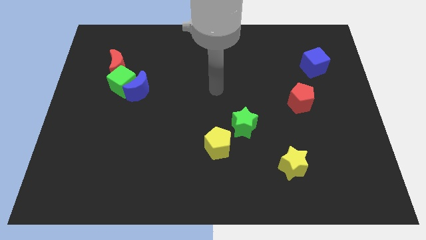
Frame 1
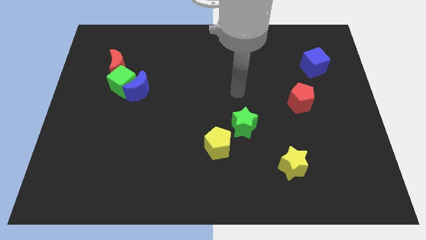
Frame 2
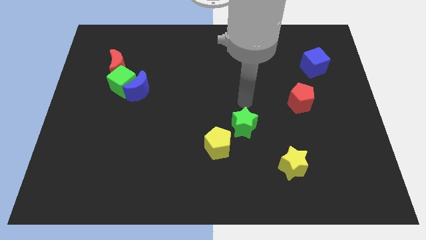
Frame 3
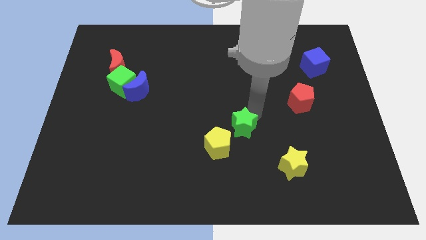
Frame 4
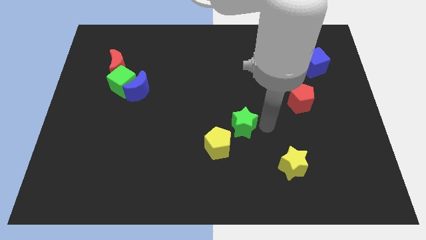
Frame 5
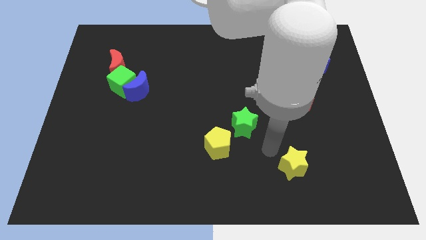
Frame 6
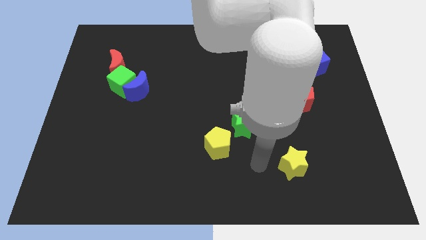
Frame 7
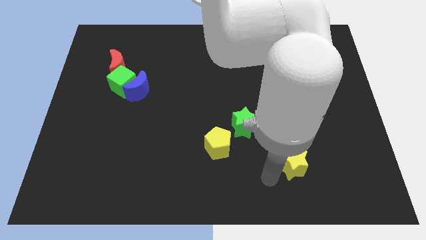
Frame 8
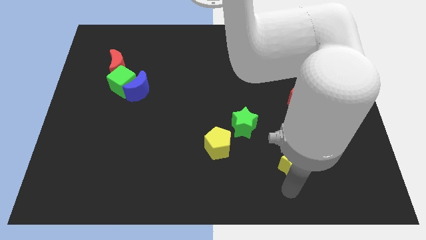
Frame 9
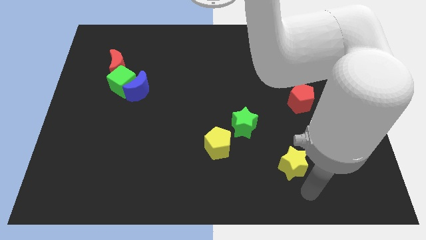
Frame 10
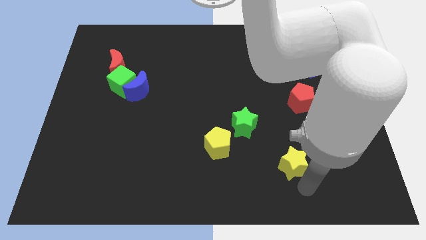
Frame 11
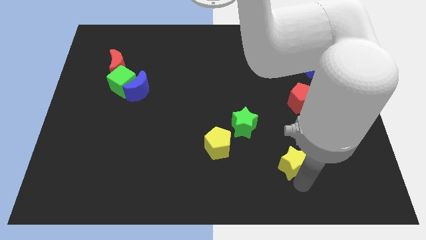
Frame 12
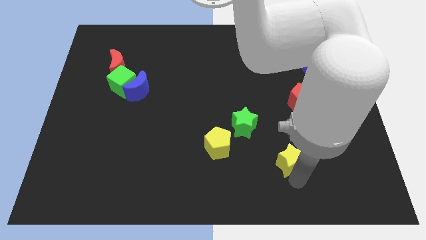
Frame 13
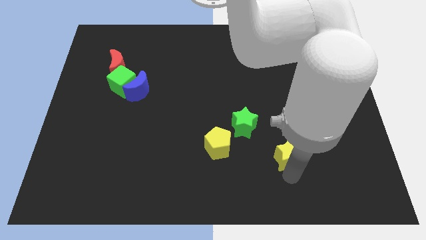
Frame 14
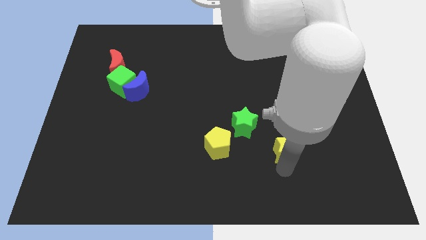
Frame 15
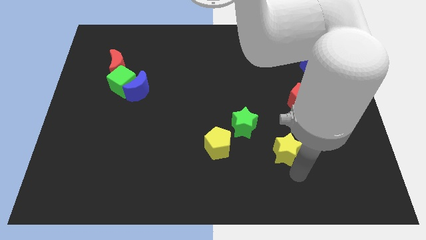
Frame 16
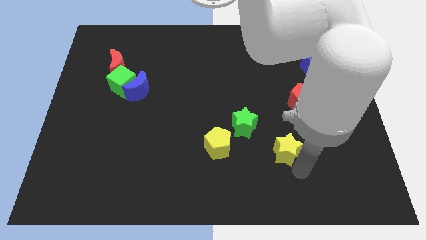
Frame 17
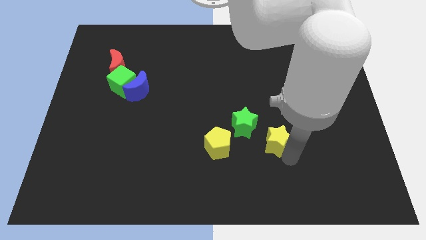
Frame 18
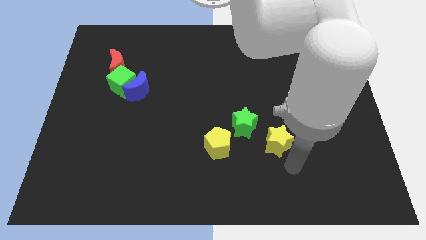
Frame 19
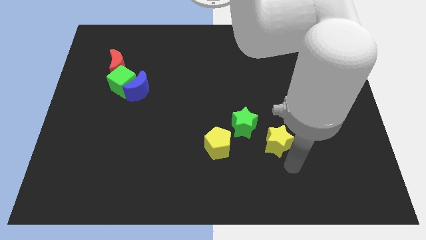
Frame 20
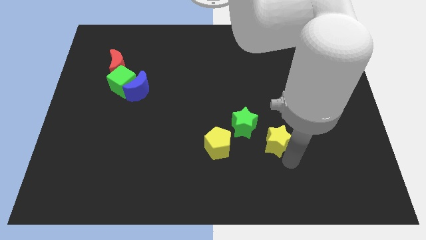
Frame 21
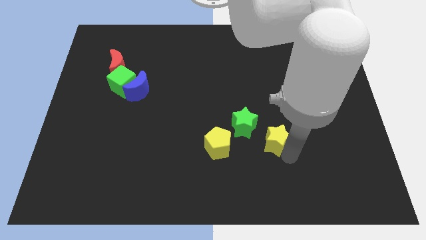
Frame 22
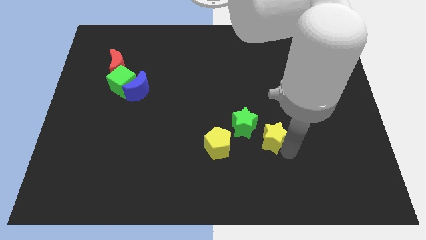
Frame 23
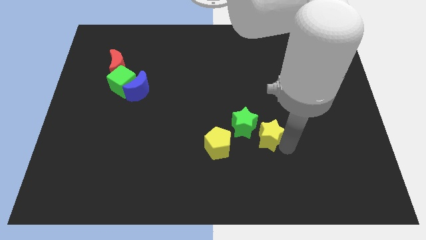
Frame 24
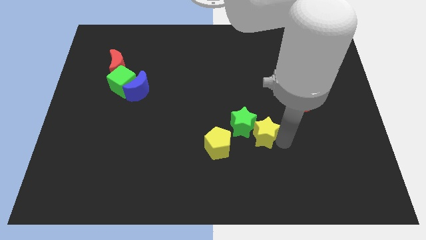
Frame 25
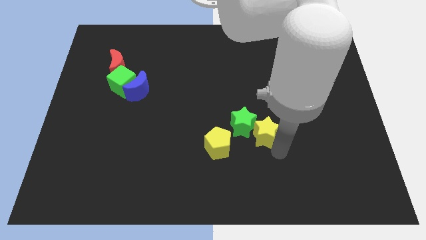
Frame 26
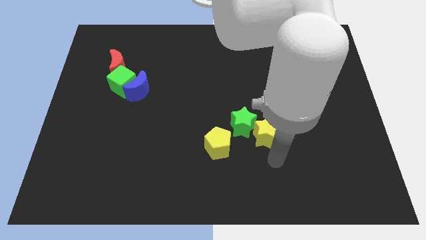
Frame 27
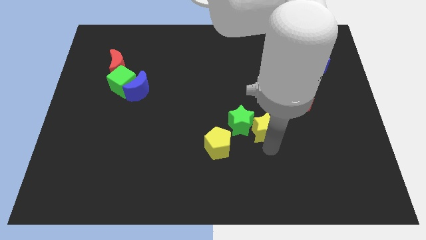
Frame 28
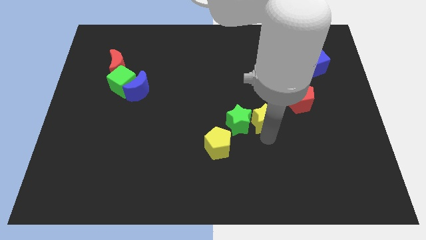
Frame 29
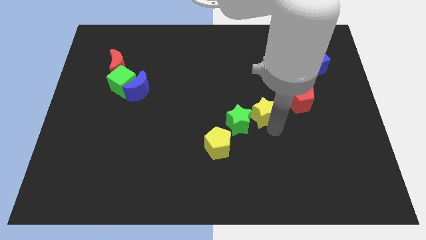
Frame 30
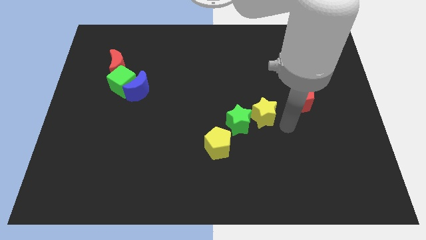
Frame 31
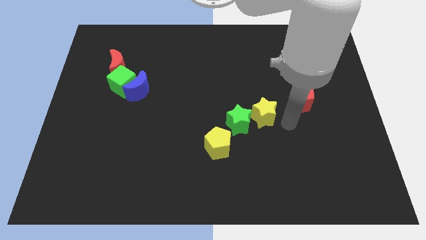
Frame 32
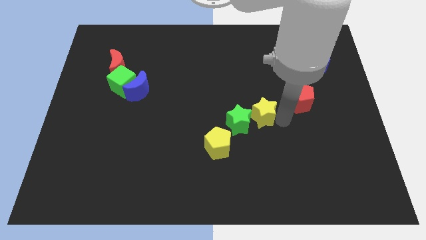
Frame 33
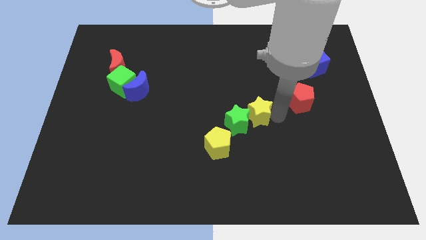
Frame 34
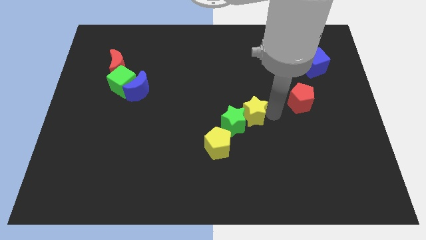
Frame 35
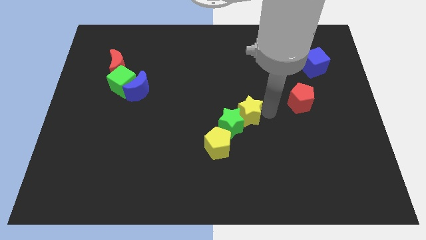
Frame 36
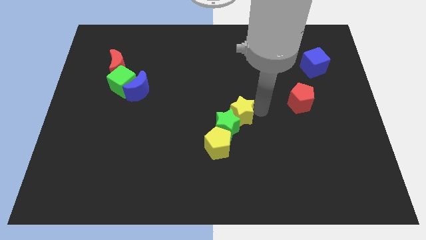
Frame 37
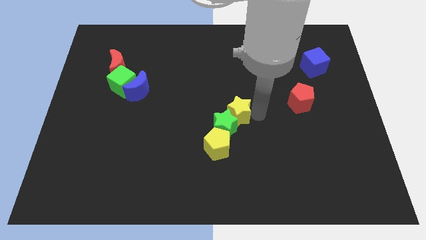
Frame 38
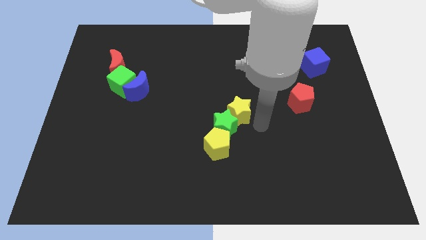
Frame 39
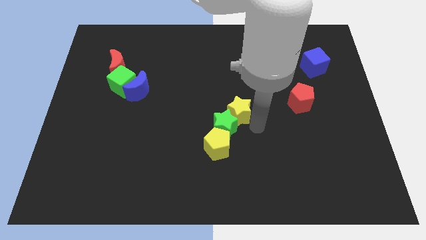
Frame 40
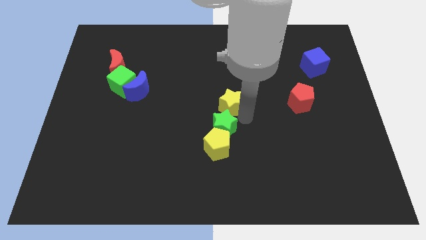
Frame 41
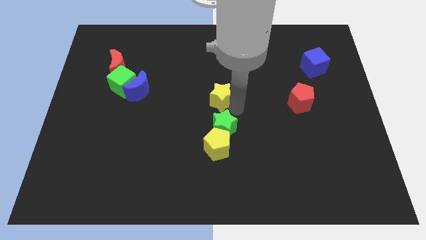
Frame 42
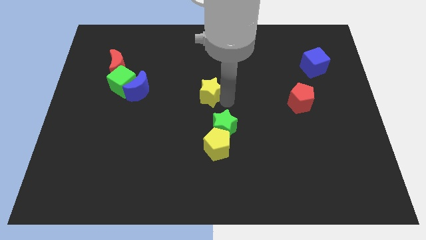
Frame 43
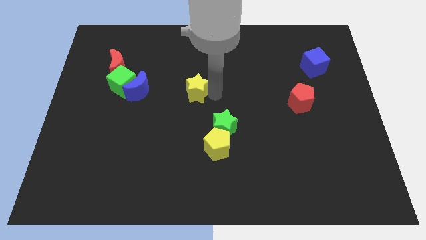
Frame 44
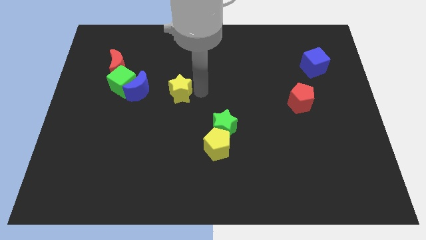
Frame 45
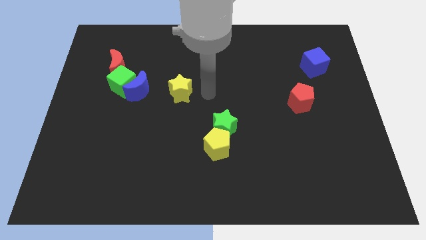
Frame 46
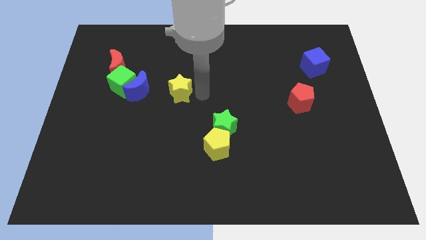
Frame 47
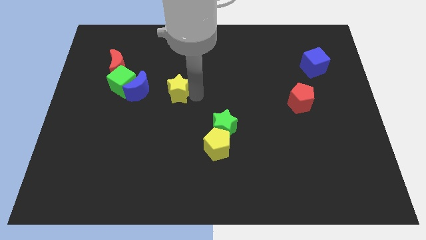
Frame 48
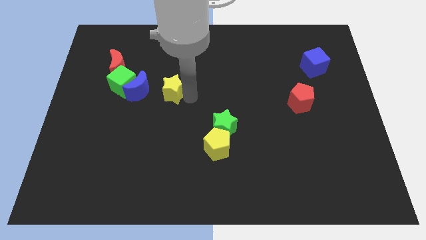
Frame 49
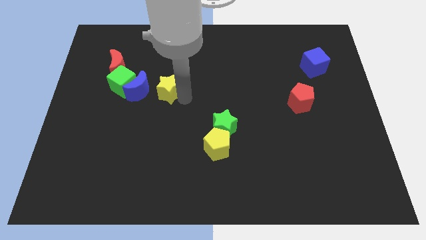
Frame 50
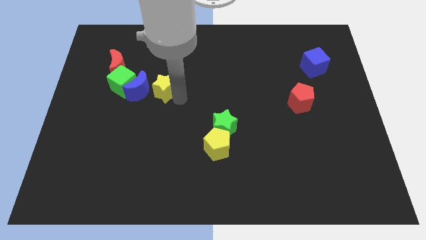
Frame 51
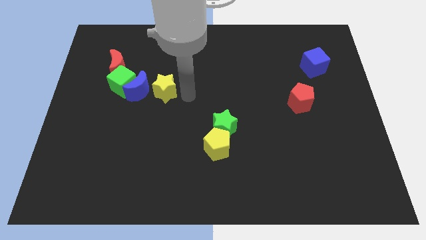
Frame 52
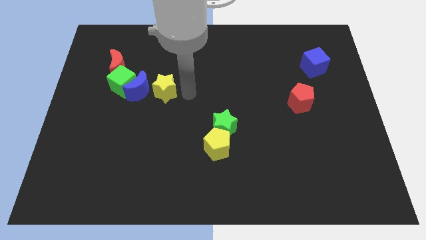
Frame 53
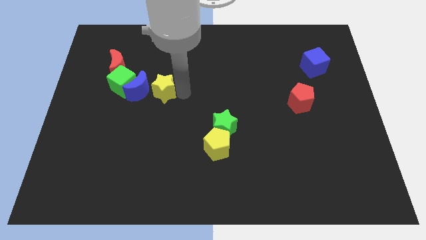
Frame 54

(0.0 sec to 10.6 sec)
move the yellow star to the blue moon

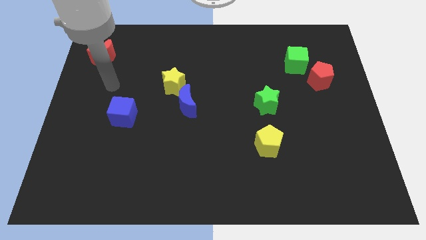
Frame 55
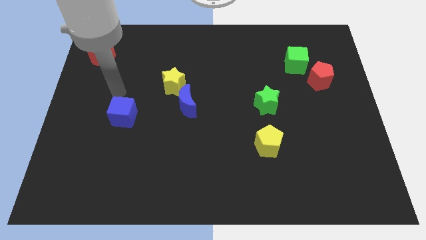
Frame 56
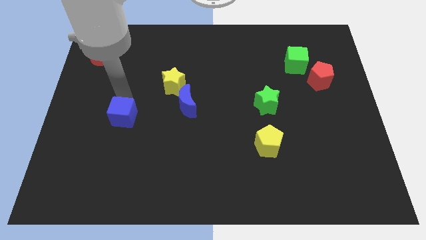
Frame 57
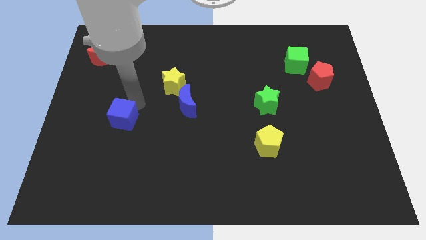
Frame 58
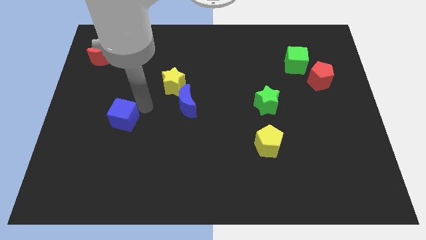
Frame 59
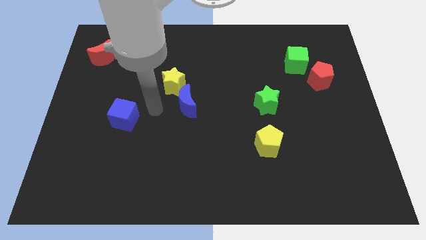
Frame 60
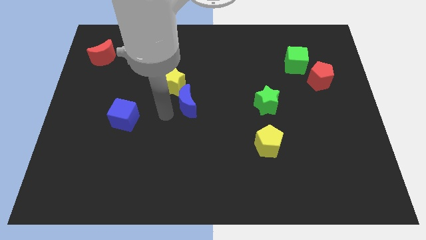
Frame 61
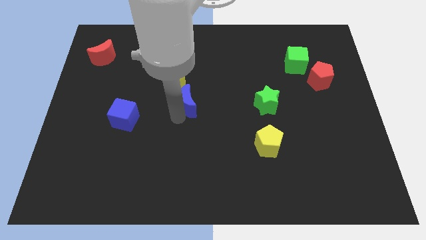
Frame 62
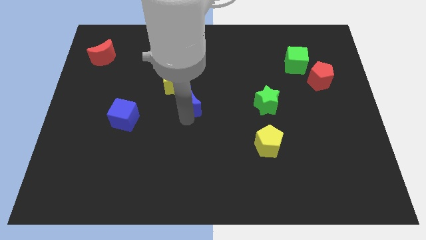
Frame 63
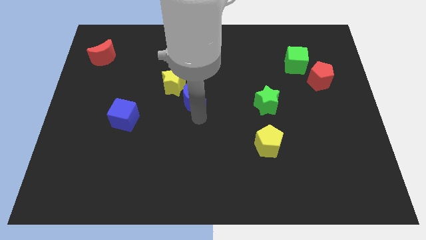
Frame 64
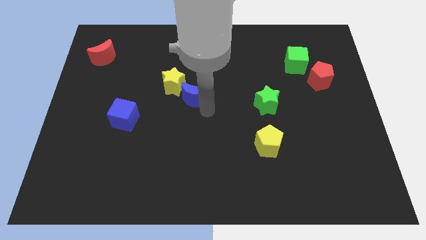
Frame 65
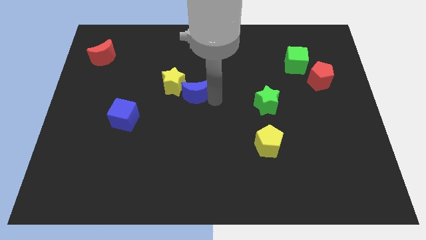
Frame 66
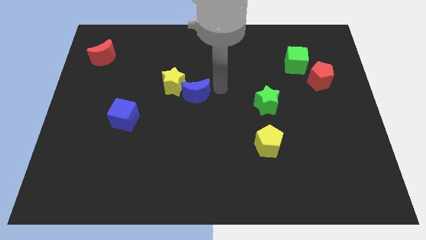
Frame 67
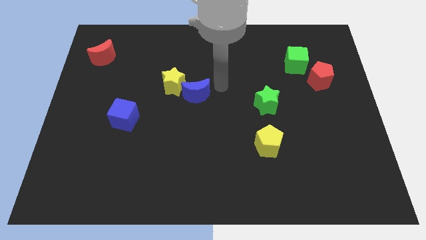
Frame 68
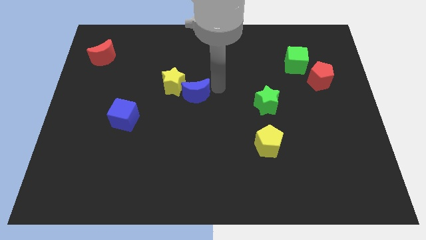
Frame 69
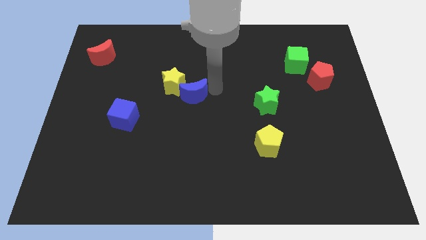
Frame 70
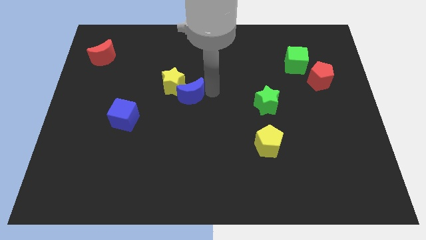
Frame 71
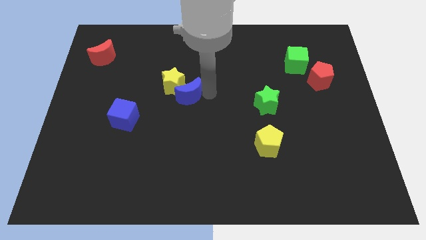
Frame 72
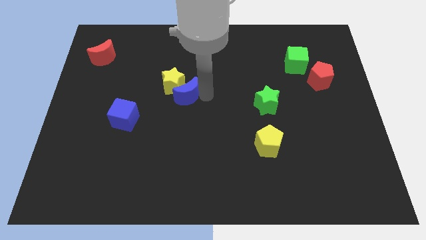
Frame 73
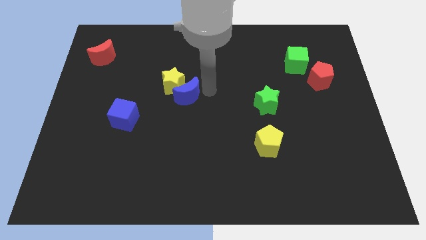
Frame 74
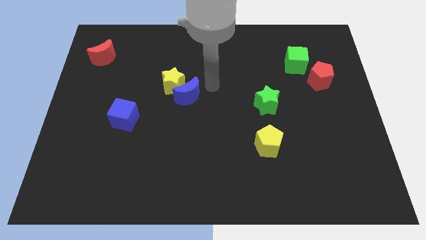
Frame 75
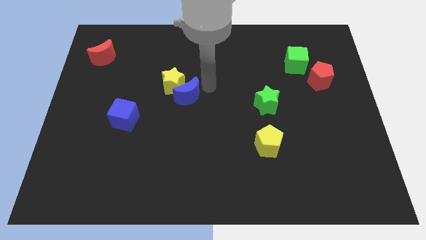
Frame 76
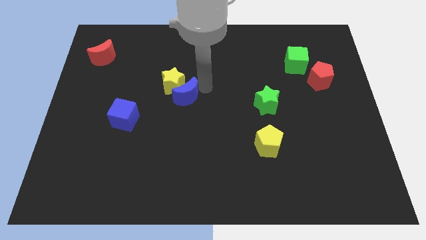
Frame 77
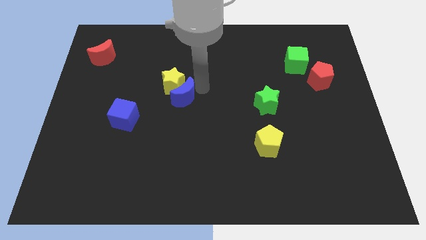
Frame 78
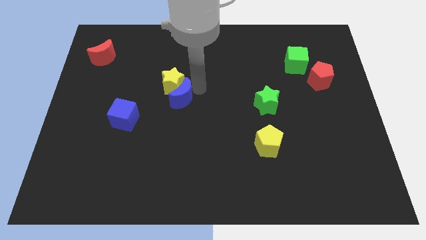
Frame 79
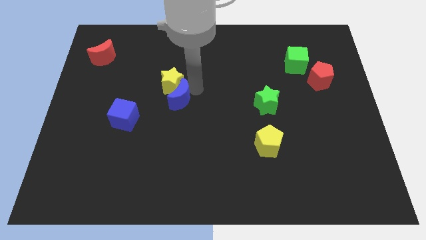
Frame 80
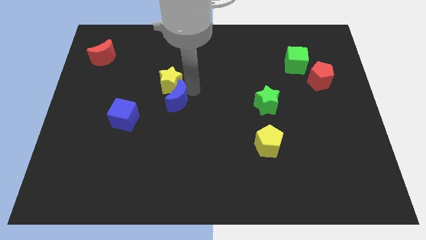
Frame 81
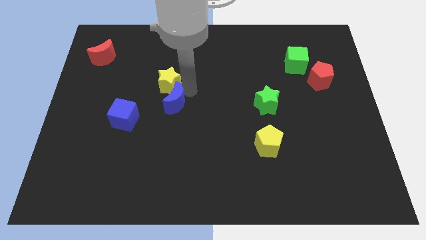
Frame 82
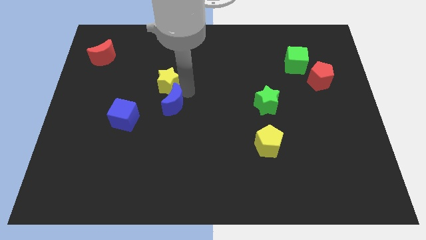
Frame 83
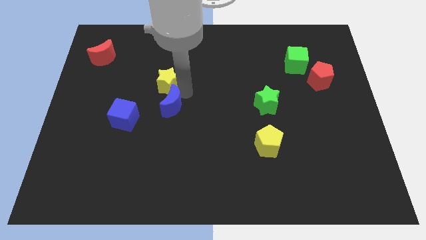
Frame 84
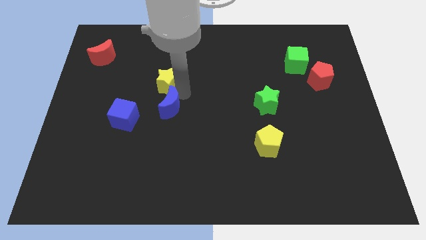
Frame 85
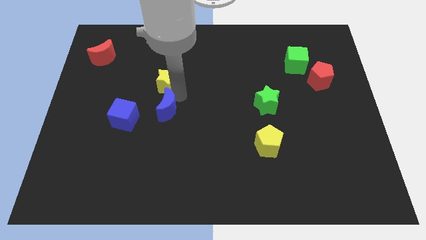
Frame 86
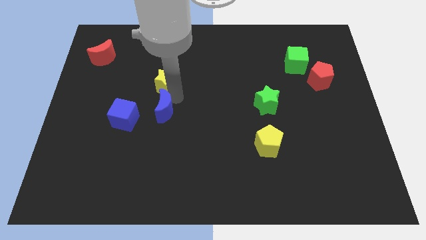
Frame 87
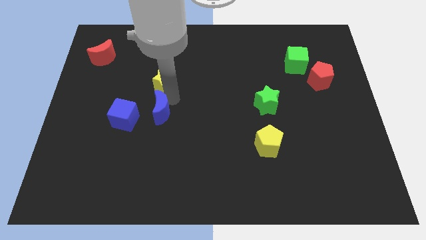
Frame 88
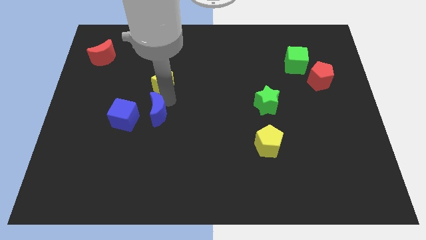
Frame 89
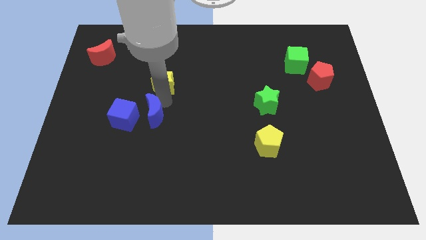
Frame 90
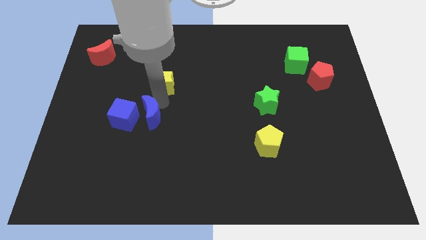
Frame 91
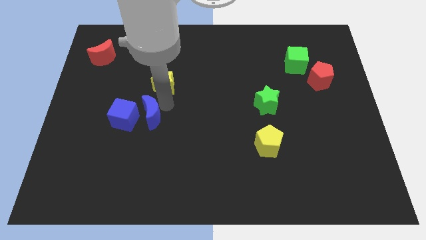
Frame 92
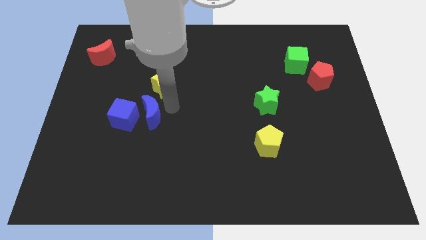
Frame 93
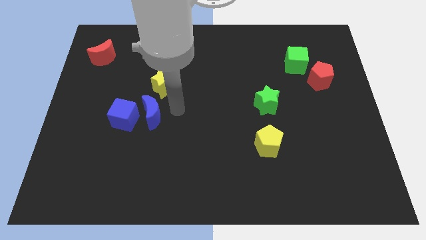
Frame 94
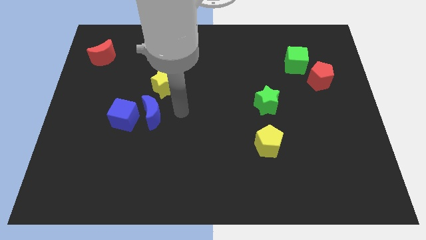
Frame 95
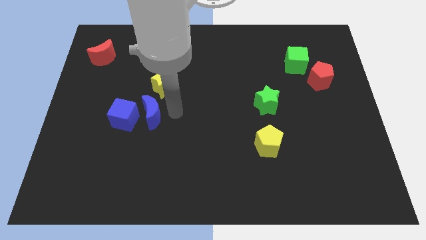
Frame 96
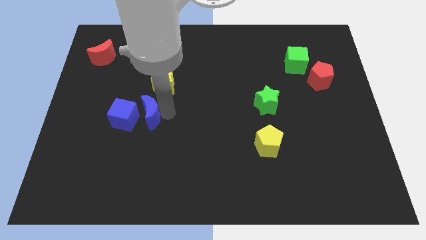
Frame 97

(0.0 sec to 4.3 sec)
move the blue moon towards the blue cube
